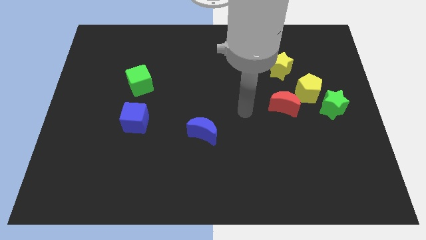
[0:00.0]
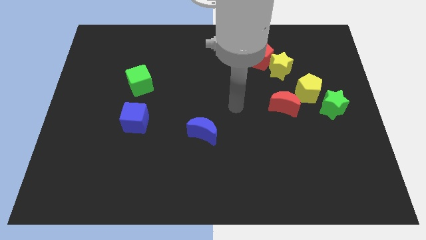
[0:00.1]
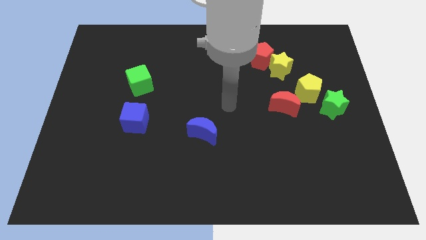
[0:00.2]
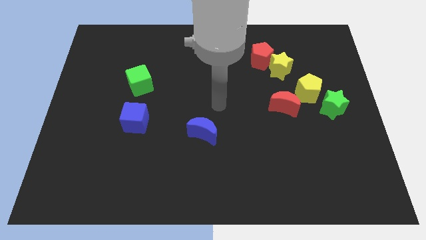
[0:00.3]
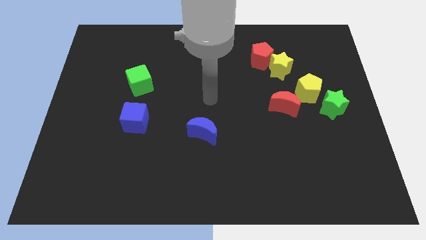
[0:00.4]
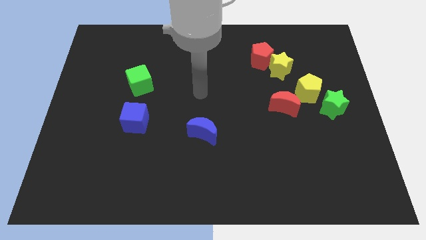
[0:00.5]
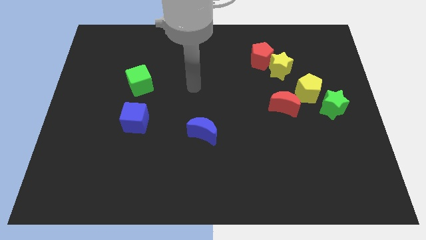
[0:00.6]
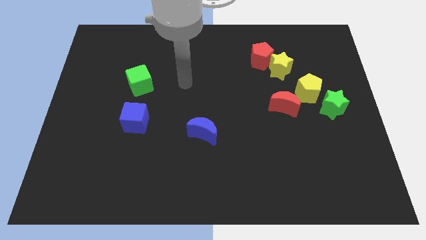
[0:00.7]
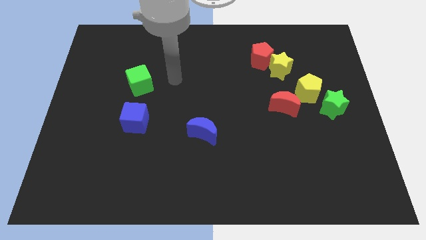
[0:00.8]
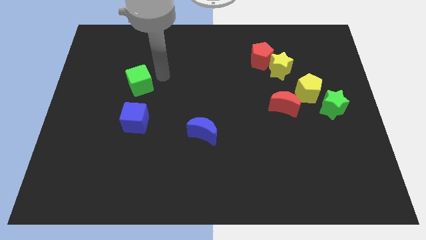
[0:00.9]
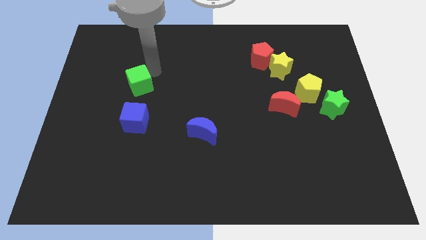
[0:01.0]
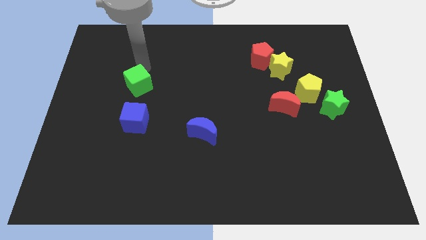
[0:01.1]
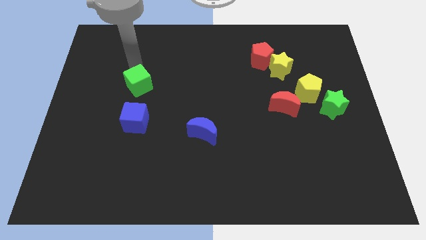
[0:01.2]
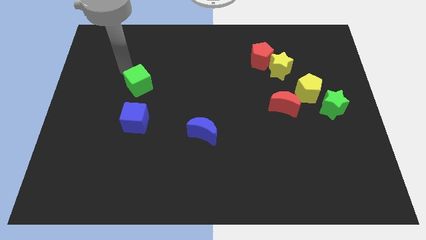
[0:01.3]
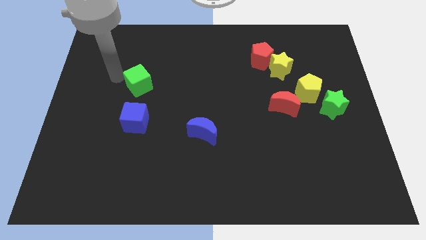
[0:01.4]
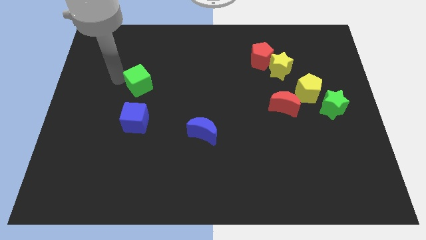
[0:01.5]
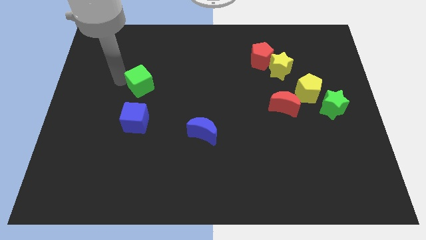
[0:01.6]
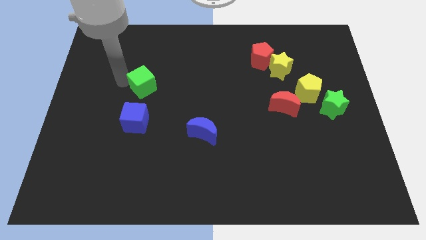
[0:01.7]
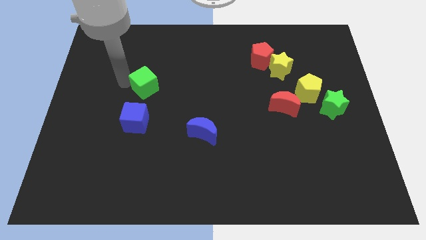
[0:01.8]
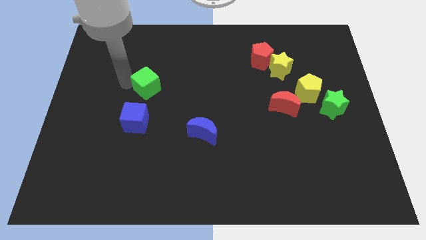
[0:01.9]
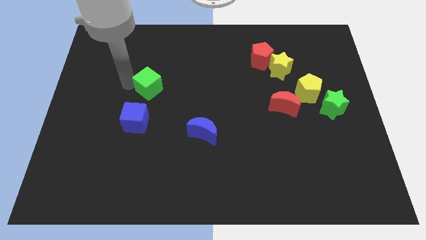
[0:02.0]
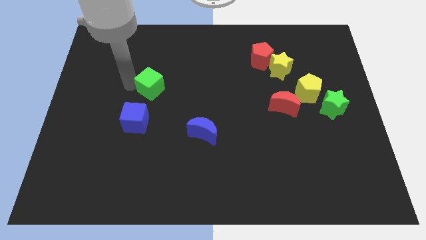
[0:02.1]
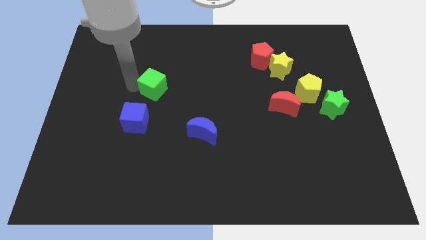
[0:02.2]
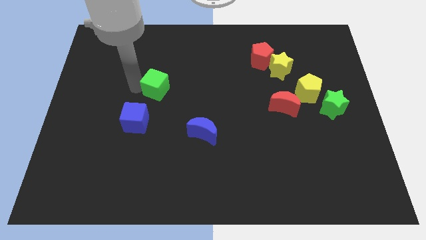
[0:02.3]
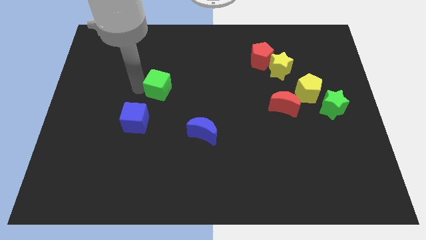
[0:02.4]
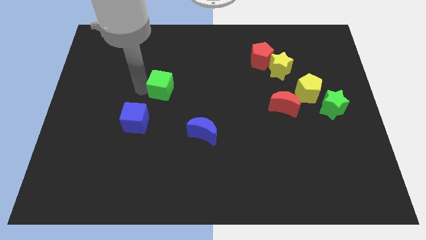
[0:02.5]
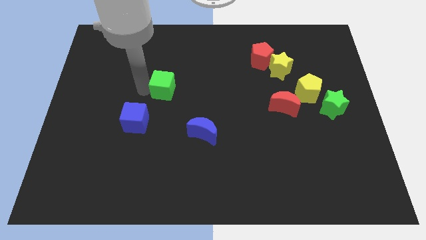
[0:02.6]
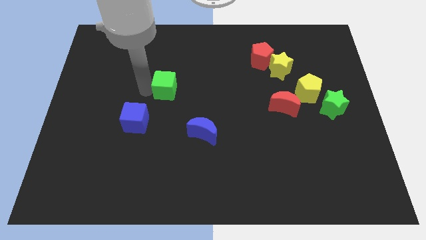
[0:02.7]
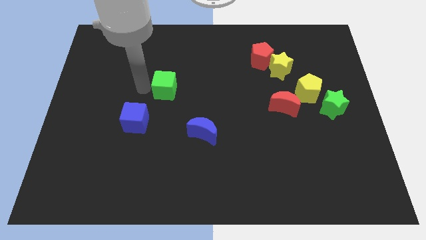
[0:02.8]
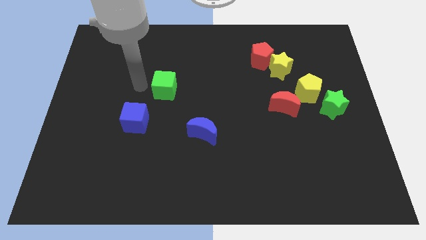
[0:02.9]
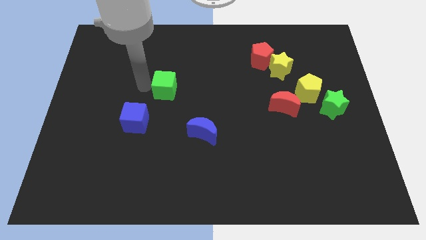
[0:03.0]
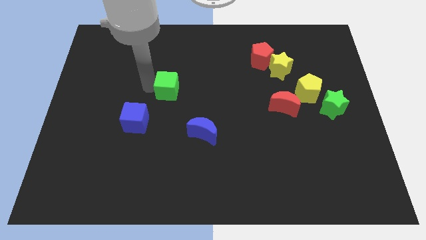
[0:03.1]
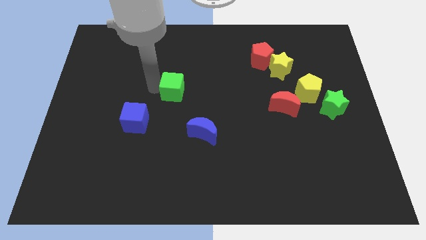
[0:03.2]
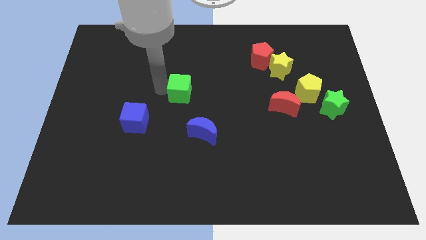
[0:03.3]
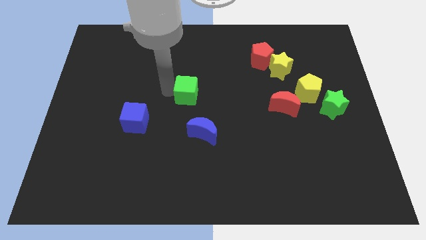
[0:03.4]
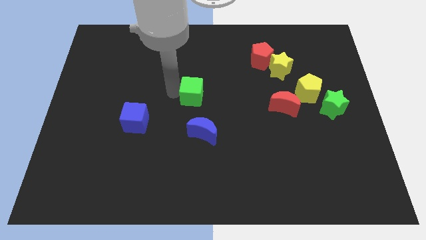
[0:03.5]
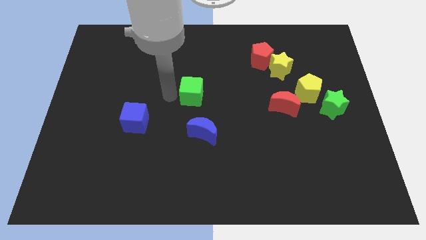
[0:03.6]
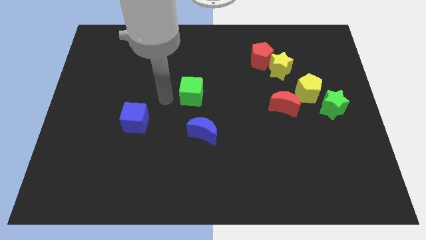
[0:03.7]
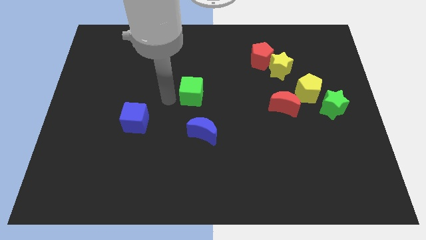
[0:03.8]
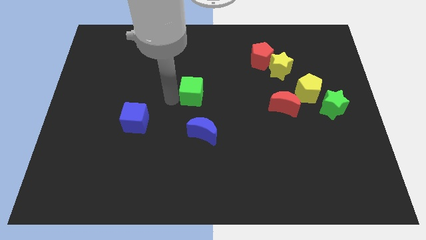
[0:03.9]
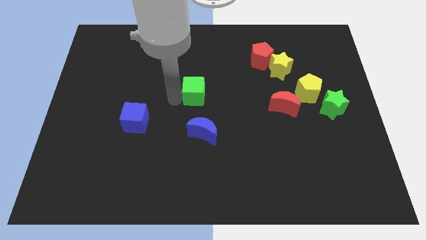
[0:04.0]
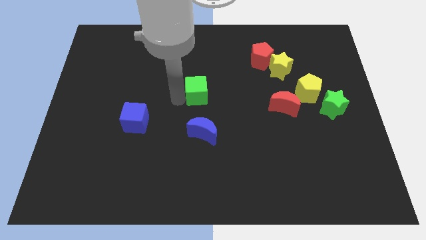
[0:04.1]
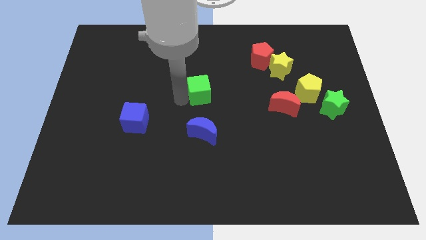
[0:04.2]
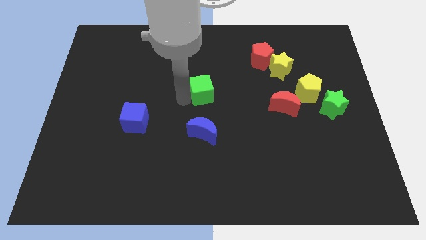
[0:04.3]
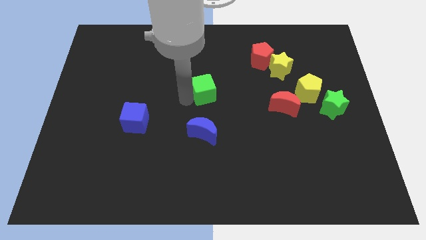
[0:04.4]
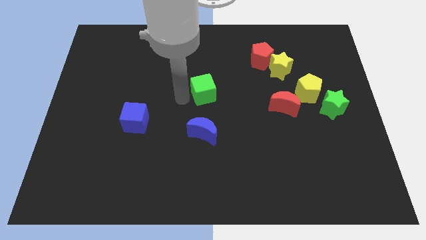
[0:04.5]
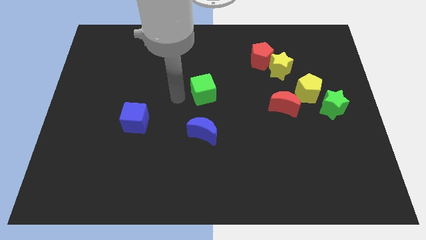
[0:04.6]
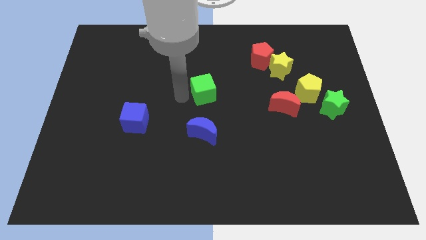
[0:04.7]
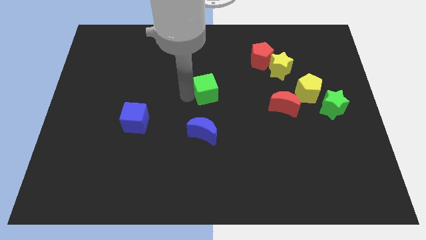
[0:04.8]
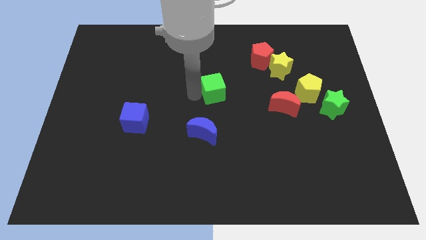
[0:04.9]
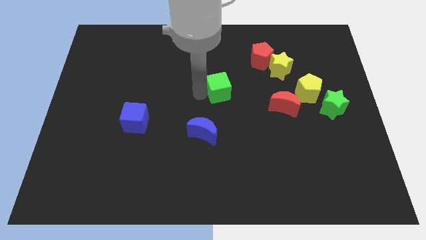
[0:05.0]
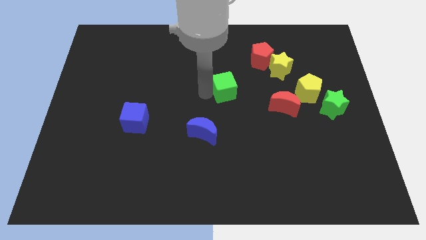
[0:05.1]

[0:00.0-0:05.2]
slide the green cube right

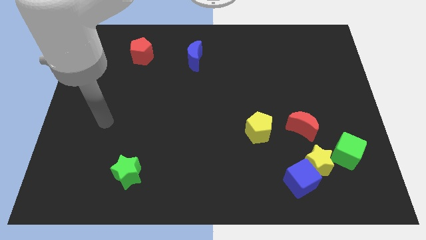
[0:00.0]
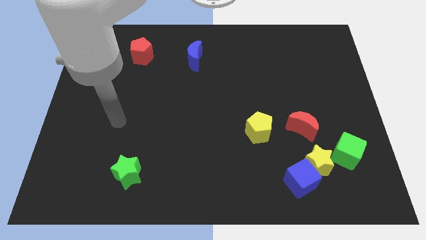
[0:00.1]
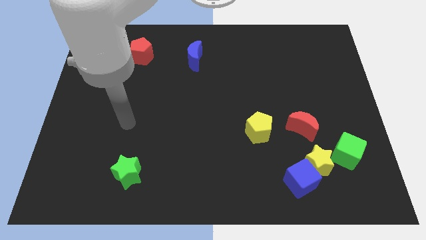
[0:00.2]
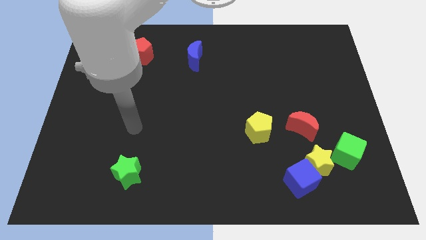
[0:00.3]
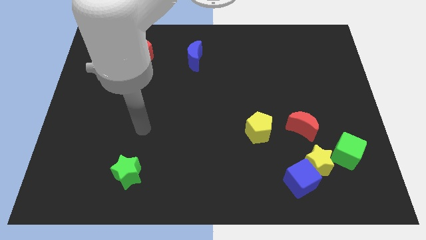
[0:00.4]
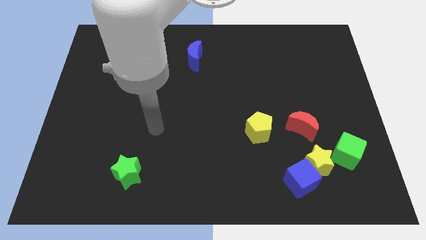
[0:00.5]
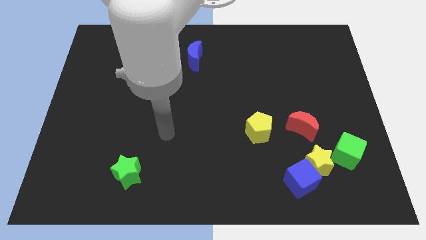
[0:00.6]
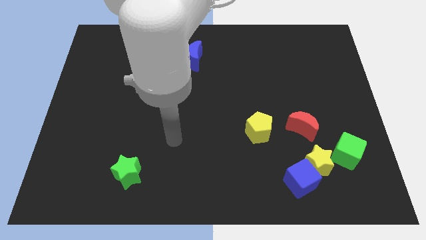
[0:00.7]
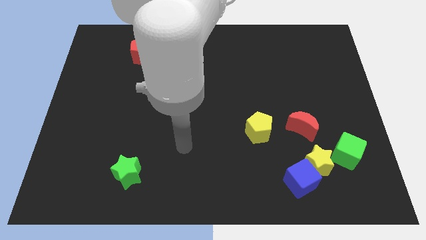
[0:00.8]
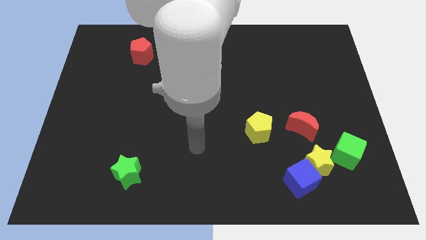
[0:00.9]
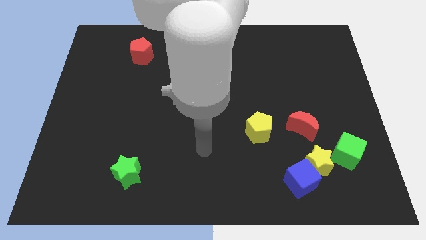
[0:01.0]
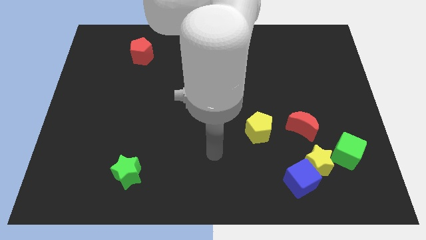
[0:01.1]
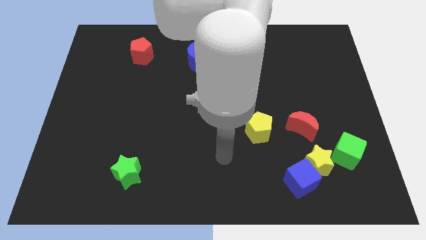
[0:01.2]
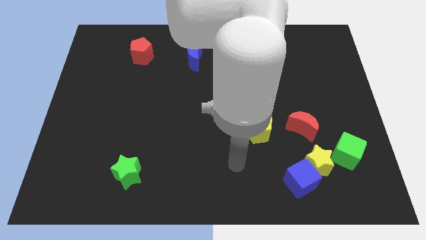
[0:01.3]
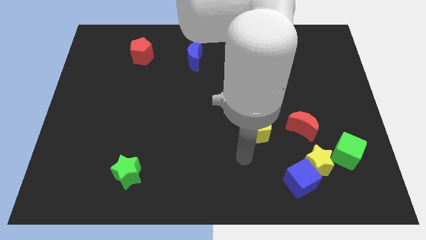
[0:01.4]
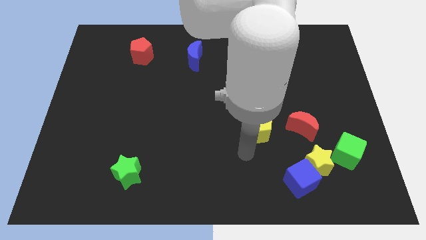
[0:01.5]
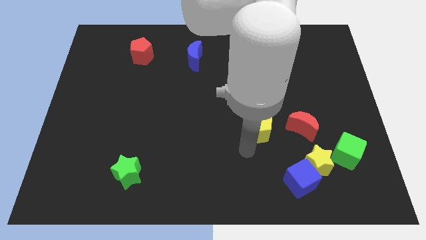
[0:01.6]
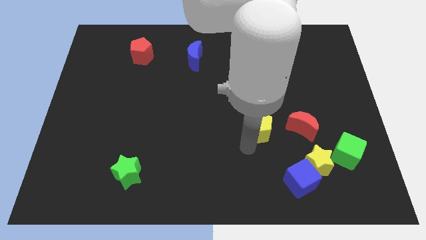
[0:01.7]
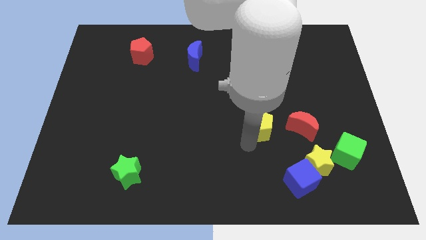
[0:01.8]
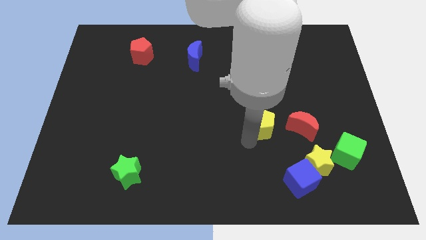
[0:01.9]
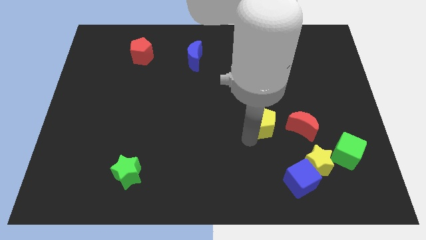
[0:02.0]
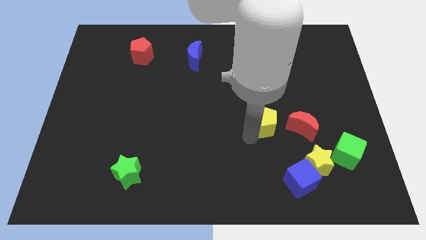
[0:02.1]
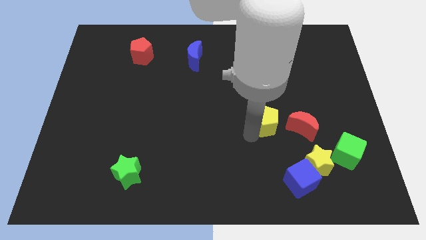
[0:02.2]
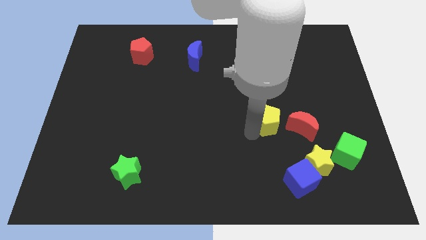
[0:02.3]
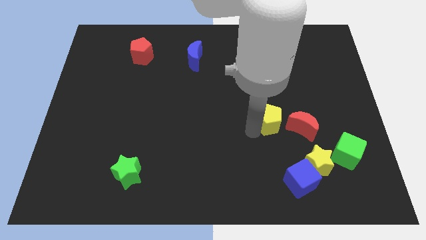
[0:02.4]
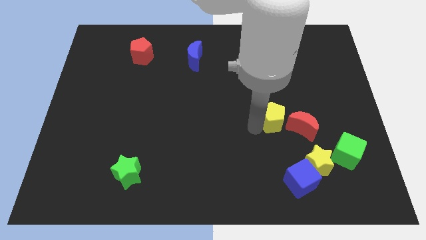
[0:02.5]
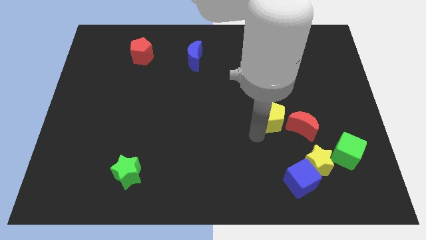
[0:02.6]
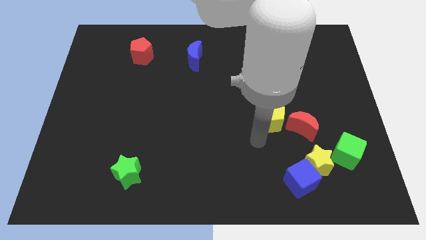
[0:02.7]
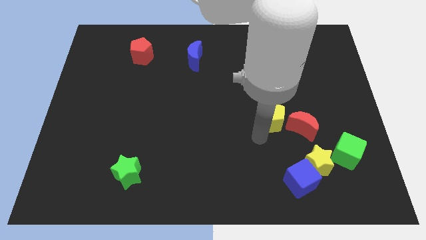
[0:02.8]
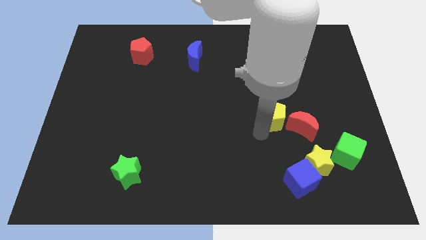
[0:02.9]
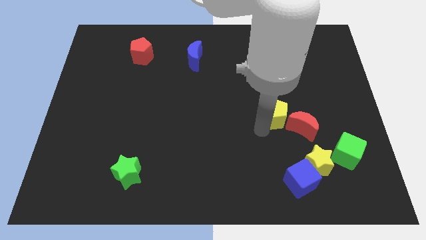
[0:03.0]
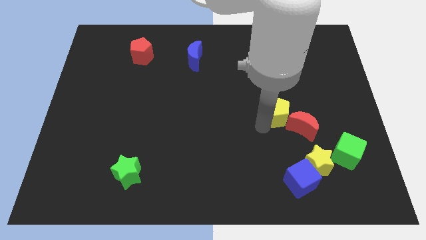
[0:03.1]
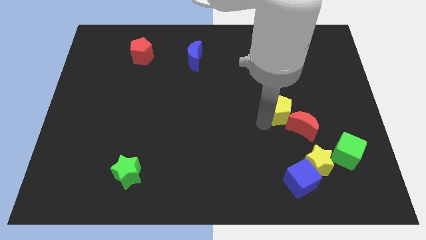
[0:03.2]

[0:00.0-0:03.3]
move the yellow pentagon up and right a little

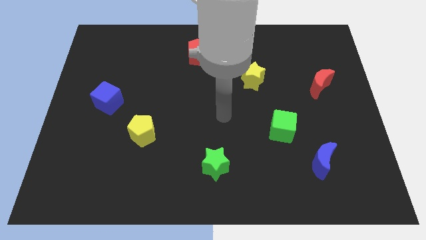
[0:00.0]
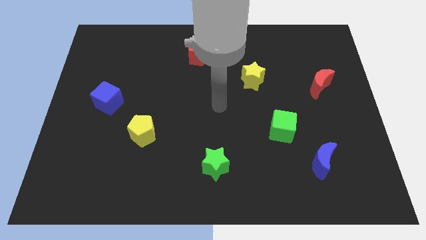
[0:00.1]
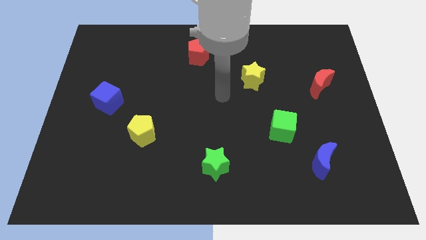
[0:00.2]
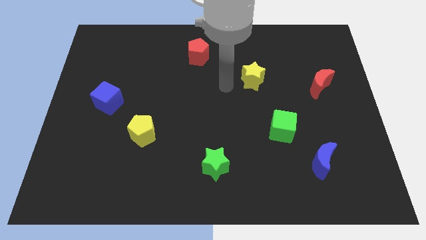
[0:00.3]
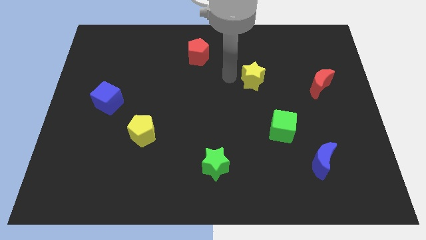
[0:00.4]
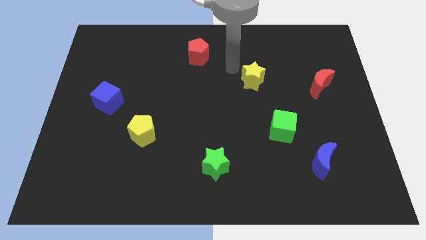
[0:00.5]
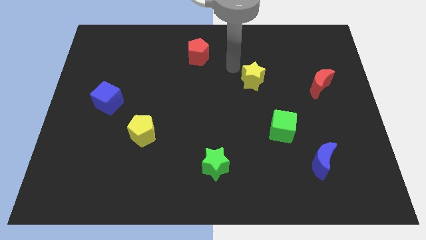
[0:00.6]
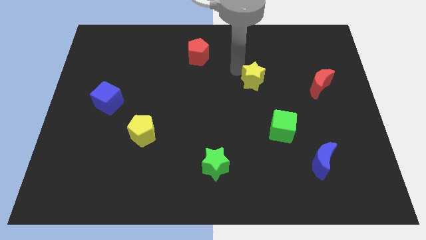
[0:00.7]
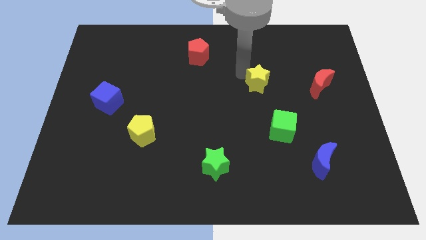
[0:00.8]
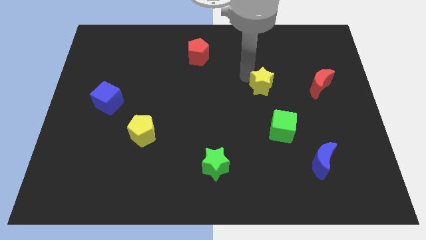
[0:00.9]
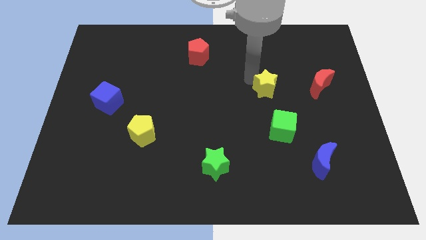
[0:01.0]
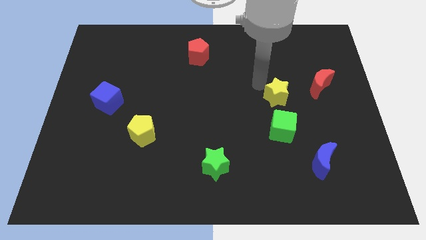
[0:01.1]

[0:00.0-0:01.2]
move the yellow star downwards and then to the right a bit
